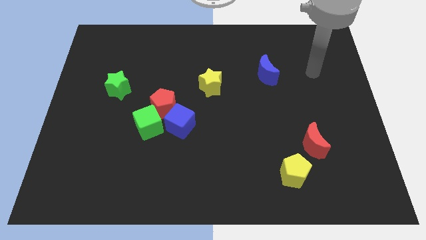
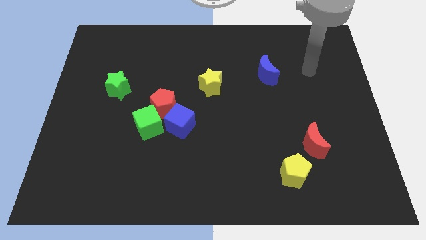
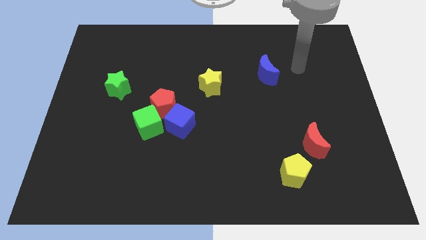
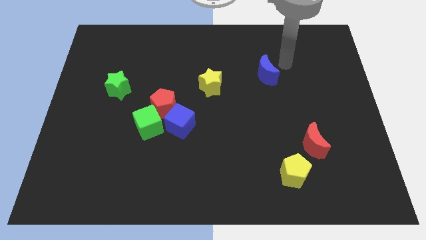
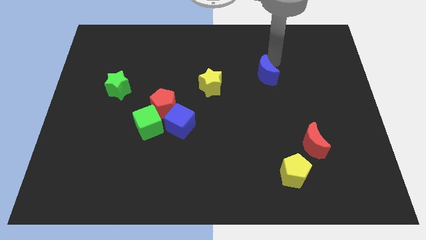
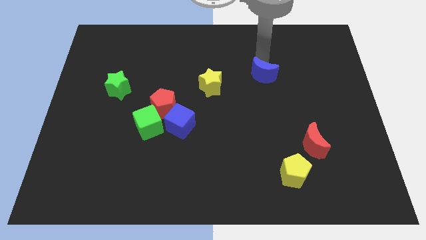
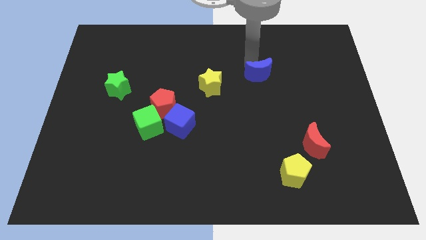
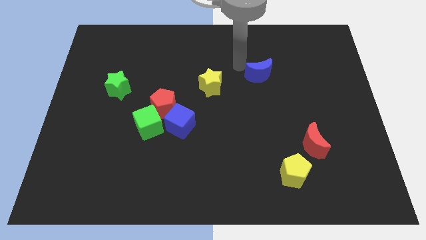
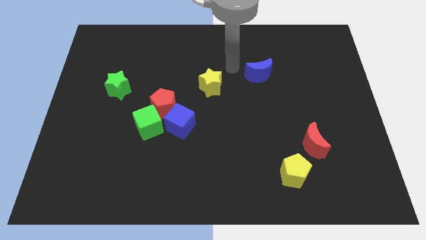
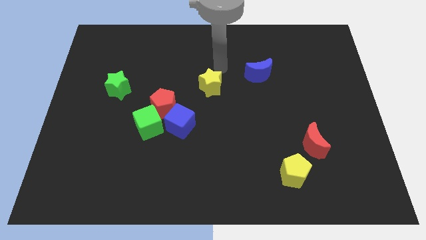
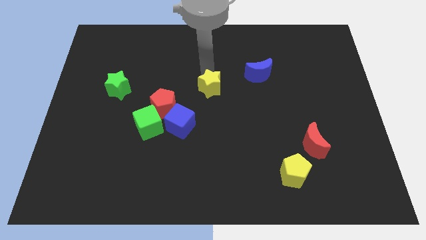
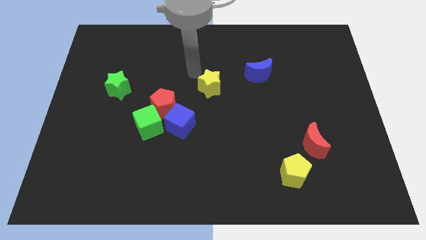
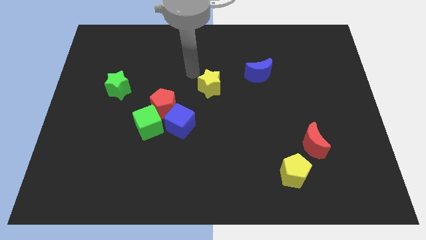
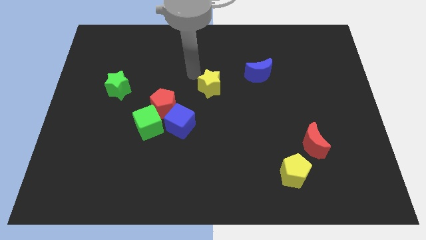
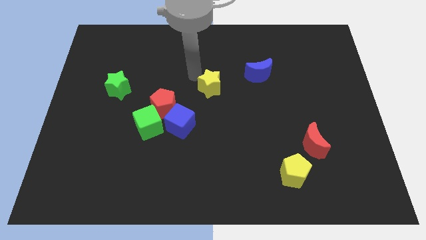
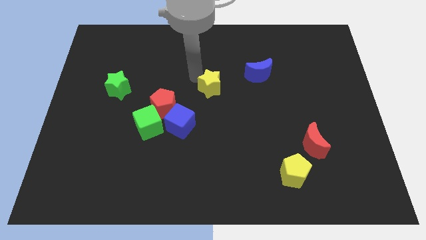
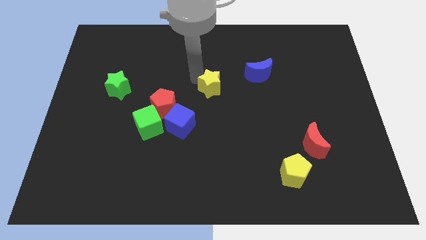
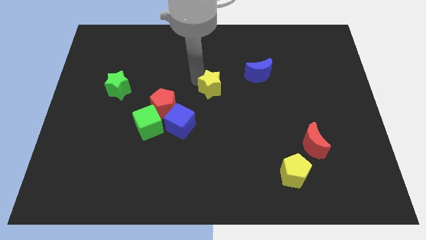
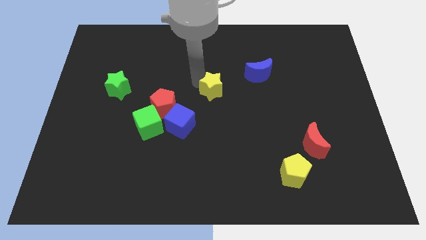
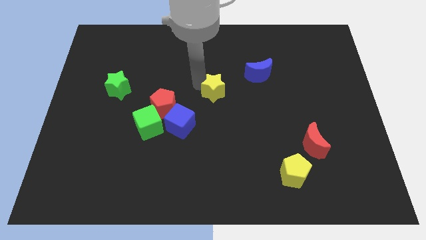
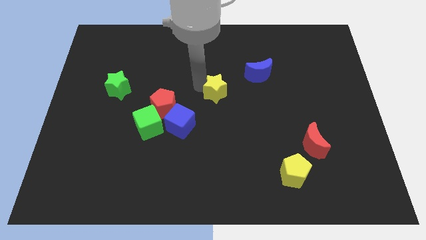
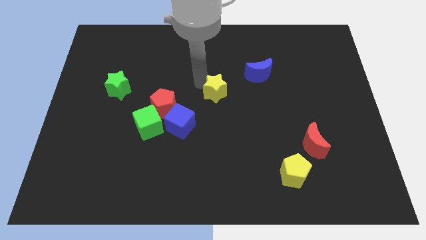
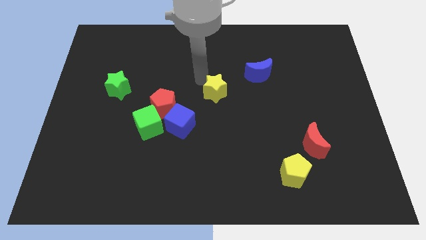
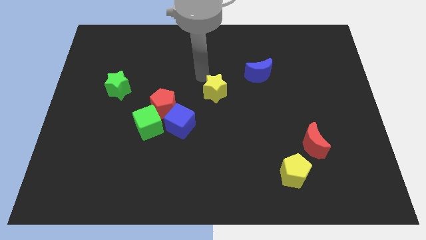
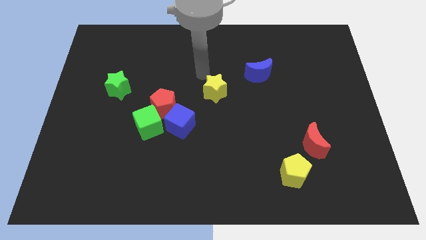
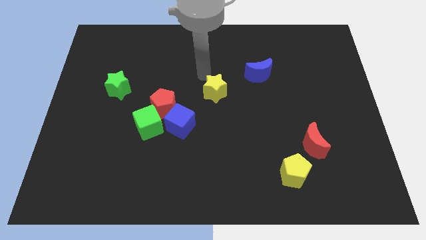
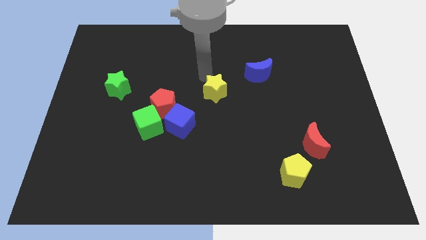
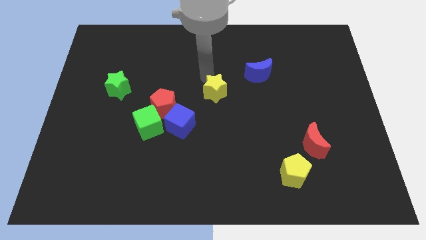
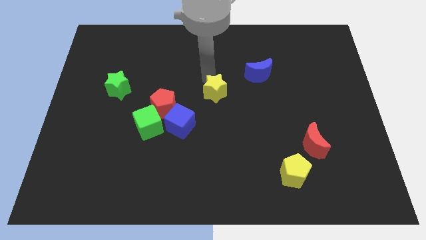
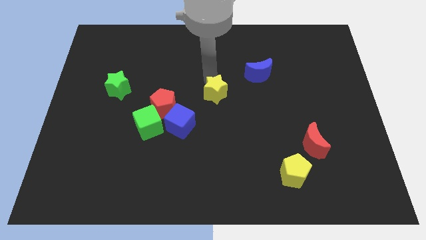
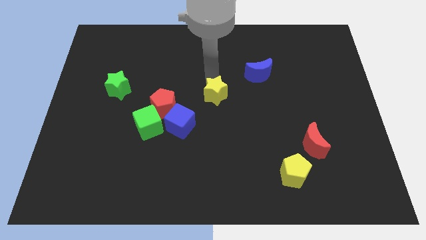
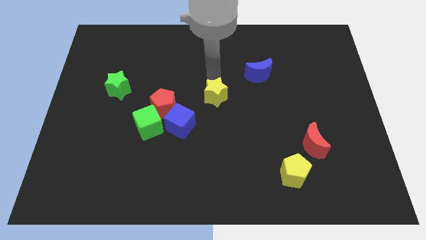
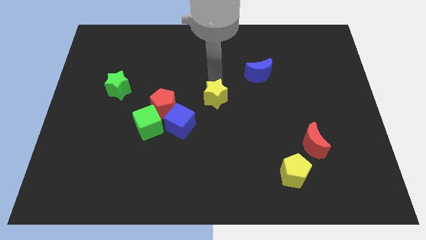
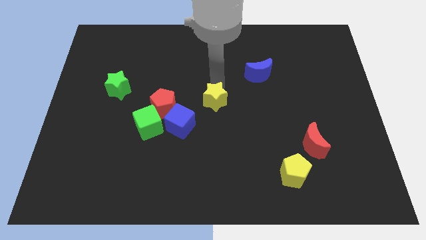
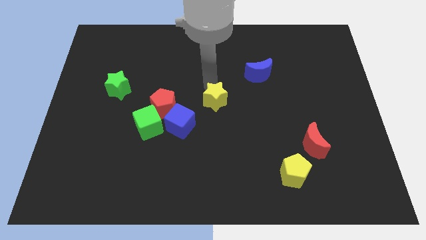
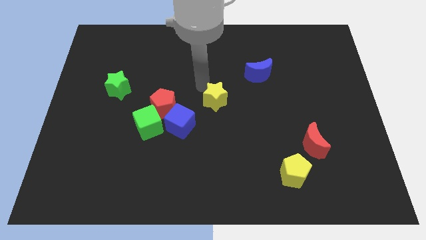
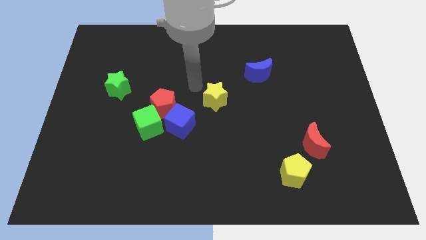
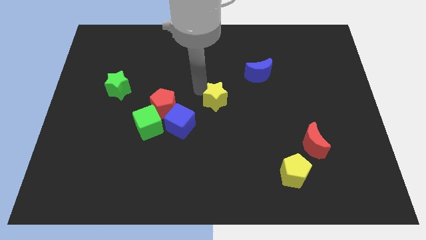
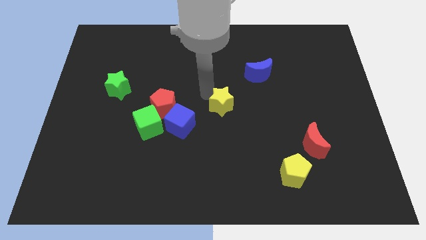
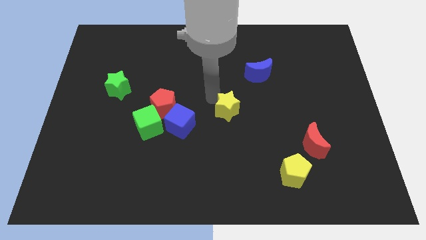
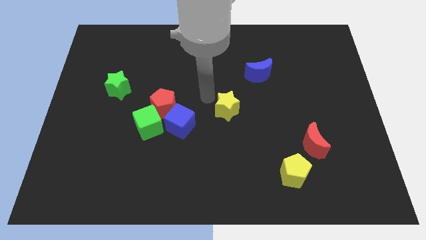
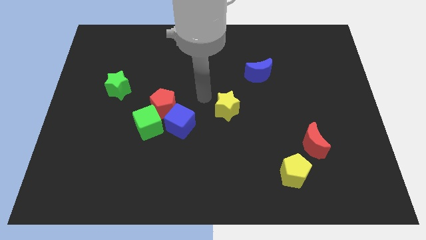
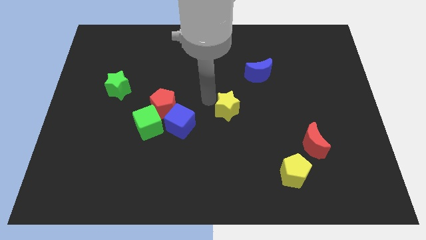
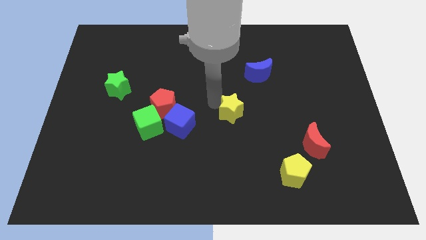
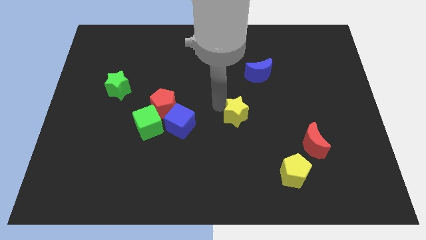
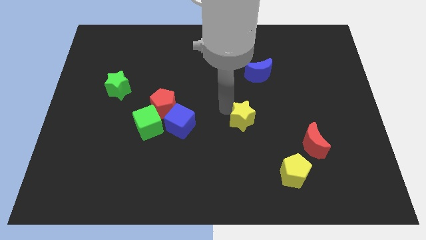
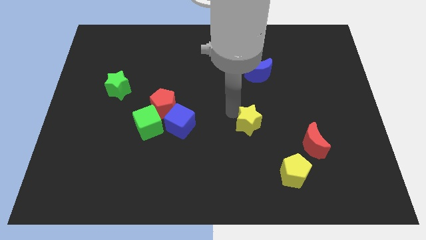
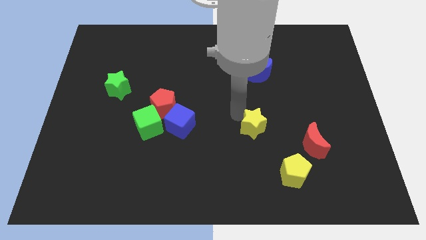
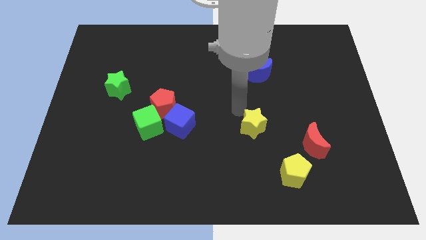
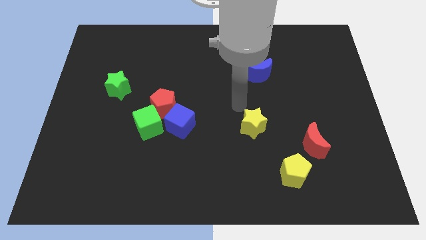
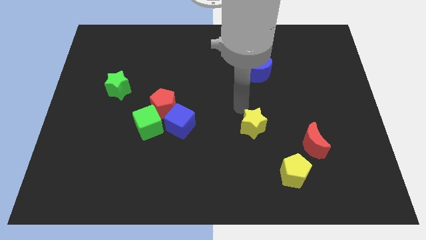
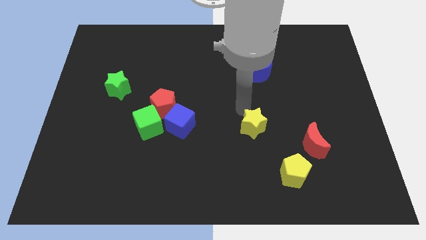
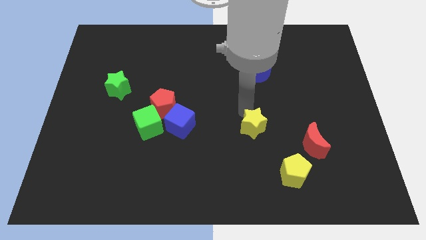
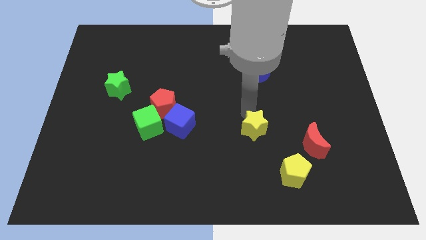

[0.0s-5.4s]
put the yellow star left of the red moon

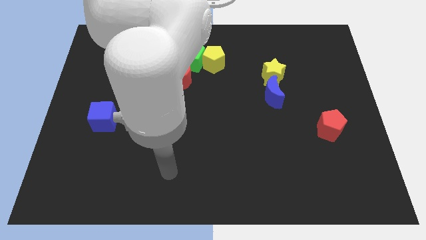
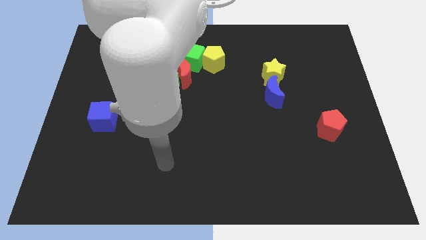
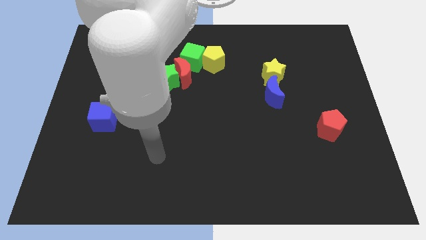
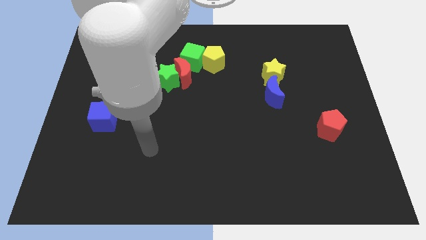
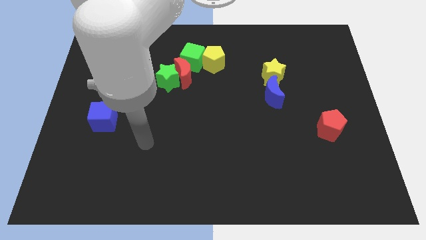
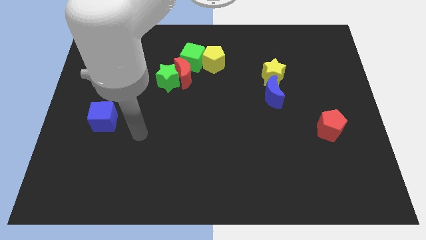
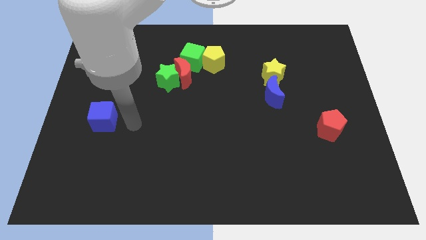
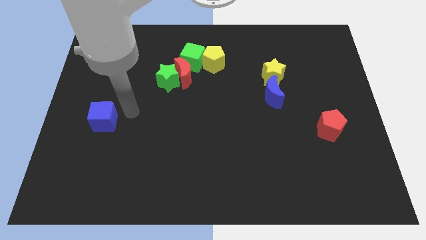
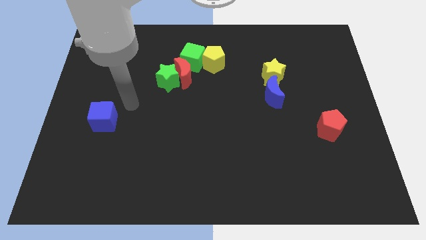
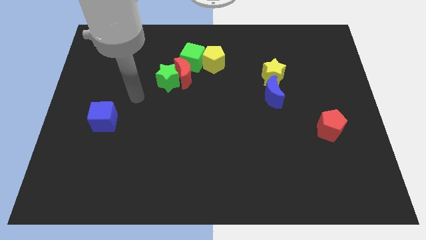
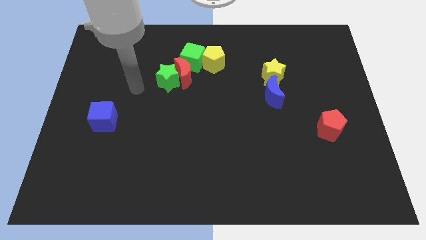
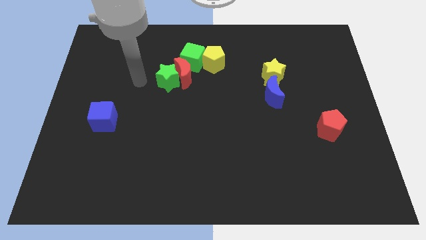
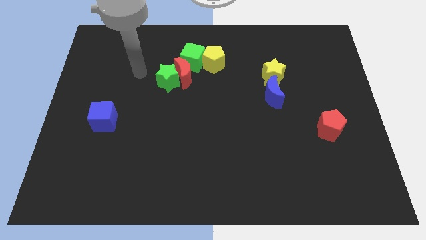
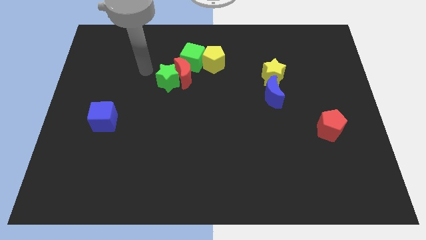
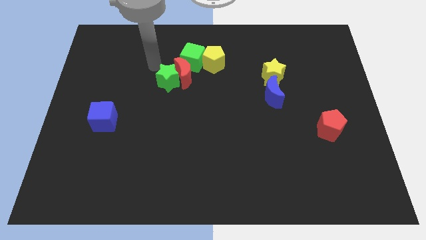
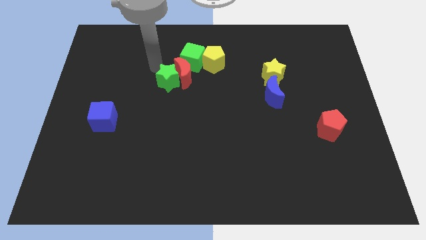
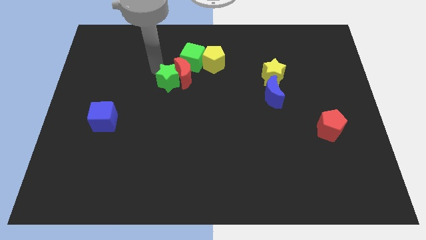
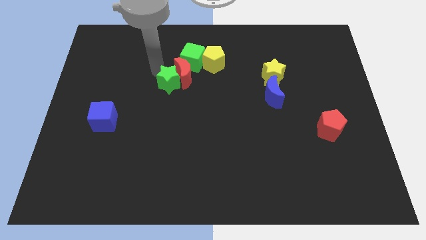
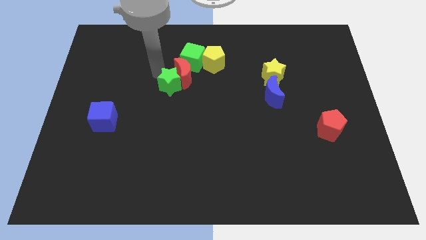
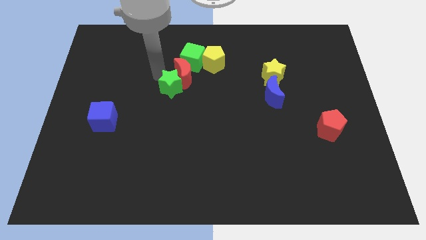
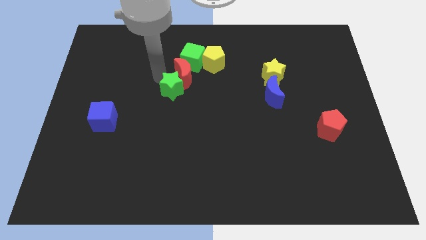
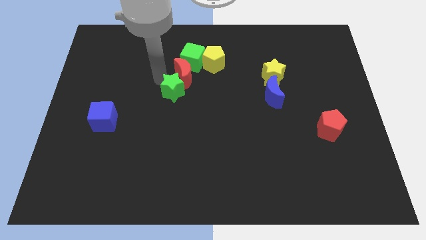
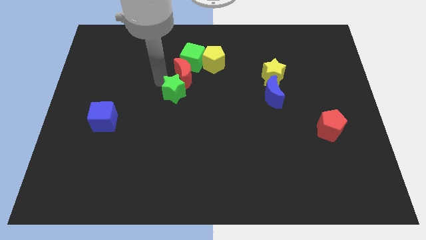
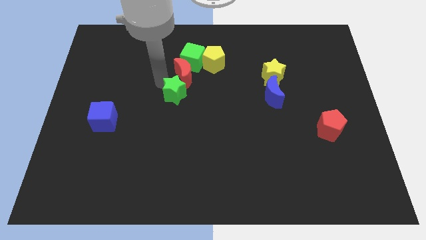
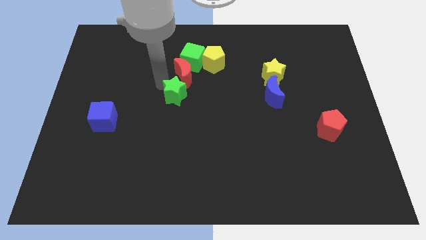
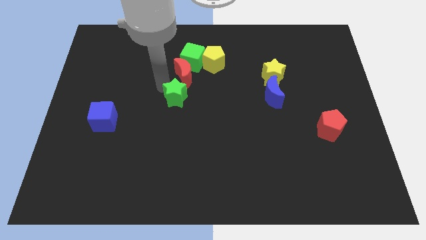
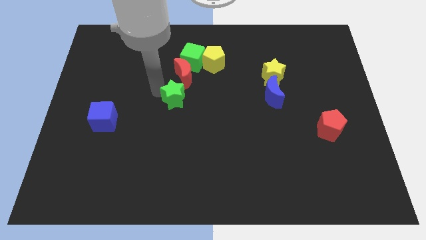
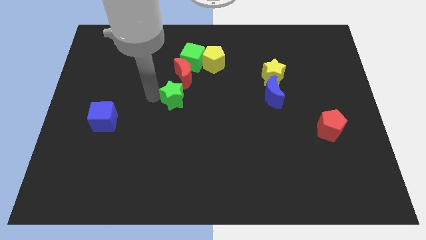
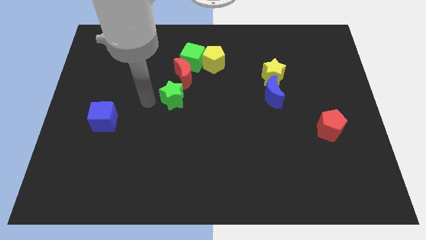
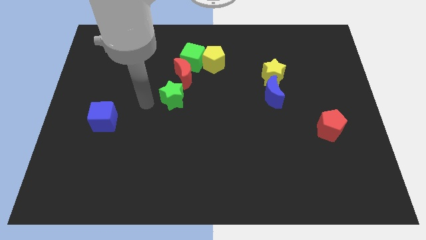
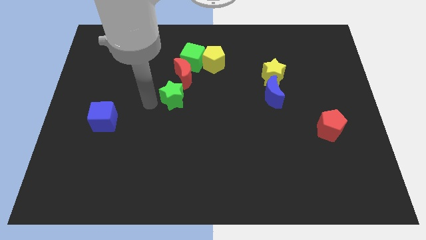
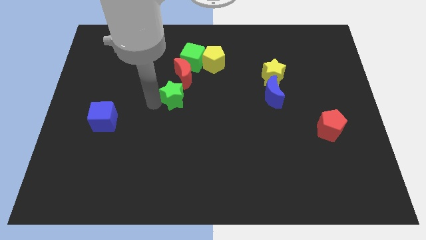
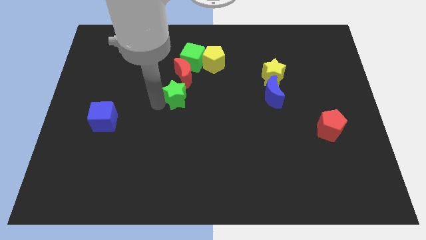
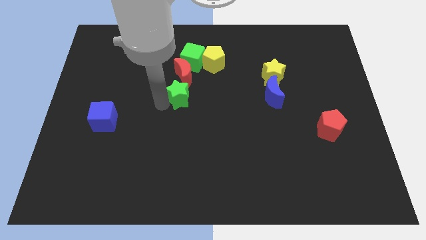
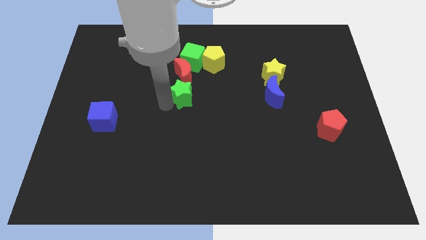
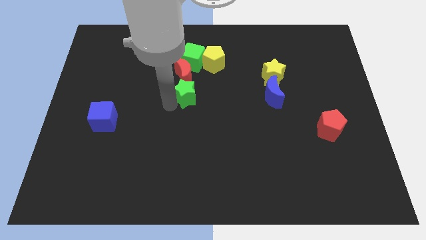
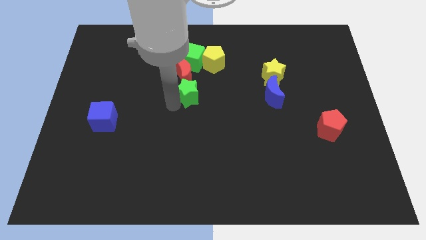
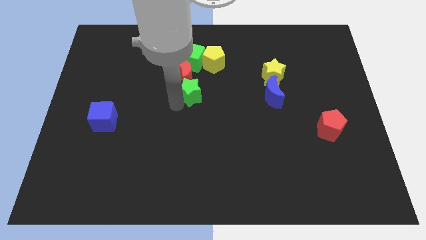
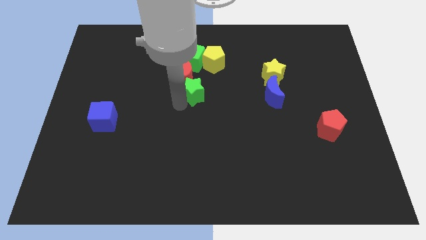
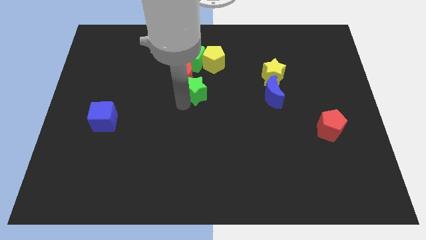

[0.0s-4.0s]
push the green star to the bottom side of the yellow pentagon
